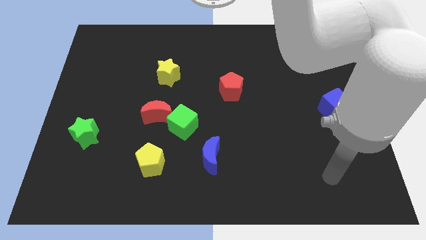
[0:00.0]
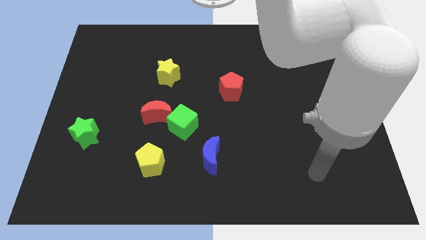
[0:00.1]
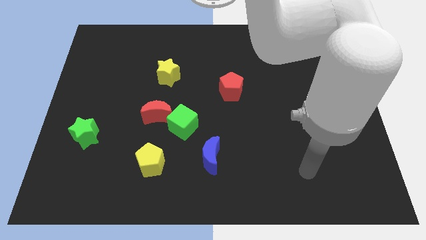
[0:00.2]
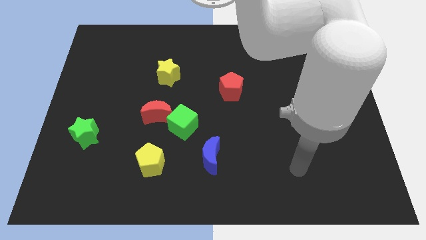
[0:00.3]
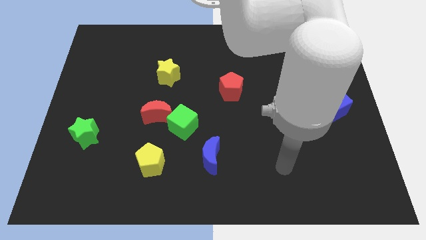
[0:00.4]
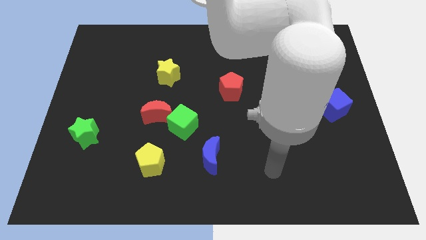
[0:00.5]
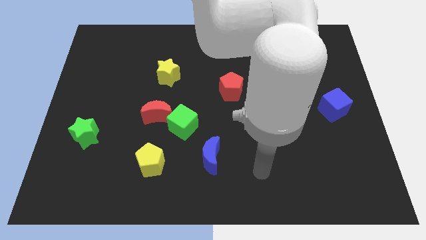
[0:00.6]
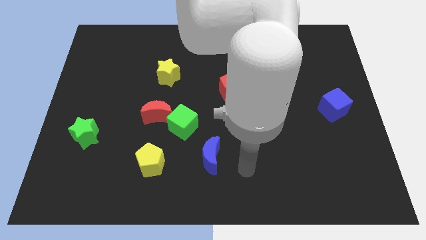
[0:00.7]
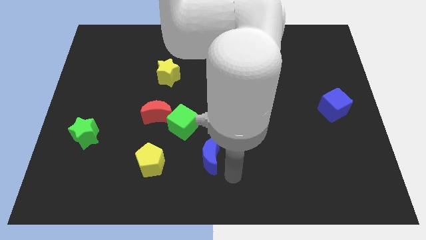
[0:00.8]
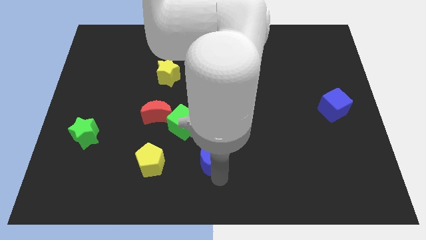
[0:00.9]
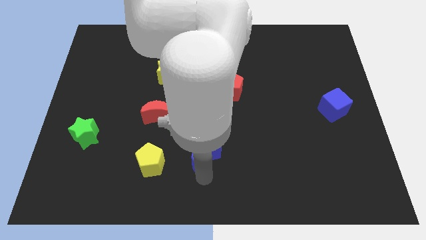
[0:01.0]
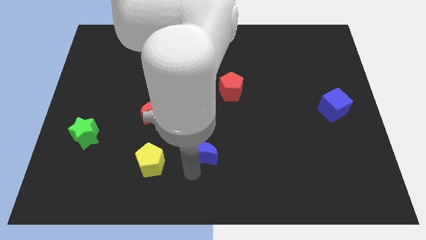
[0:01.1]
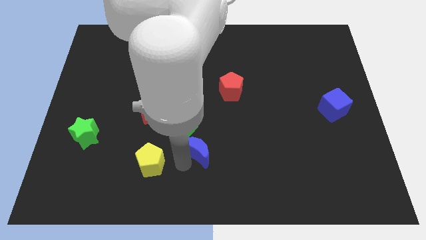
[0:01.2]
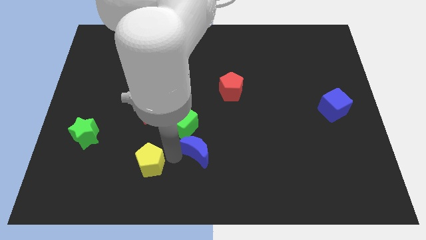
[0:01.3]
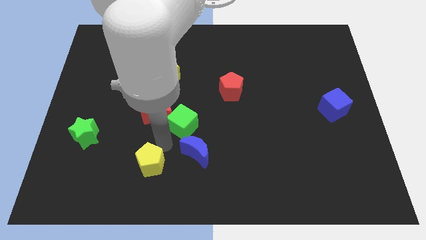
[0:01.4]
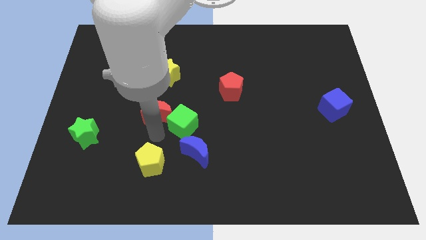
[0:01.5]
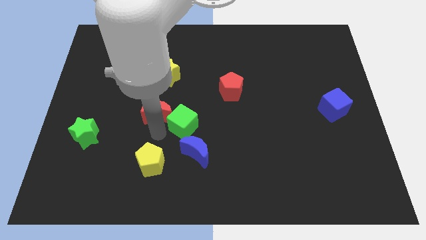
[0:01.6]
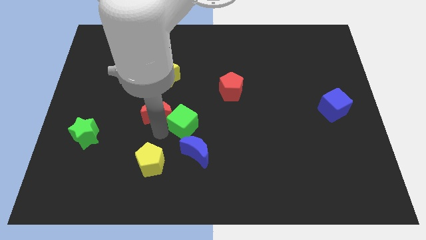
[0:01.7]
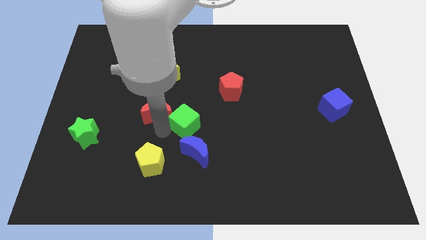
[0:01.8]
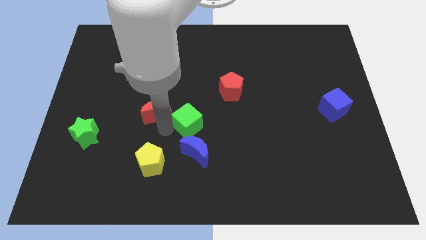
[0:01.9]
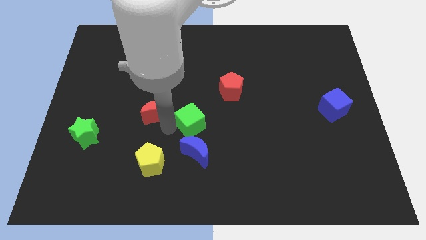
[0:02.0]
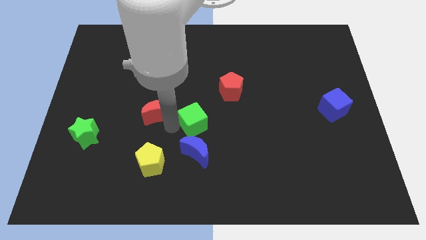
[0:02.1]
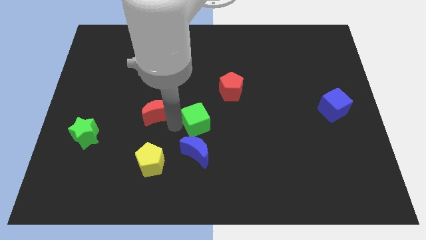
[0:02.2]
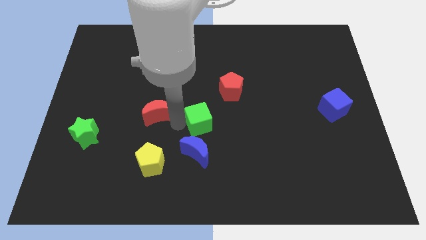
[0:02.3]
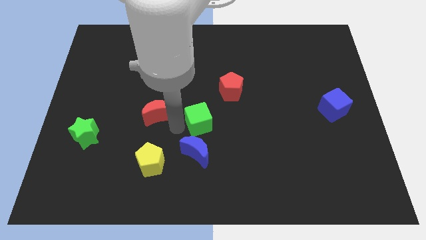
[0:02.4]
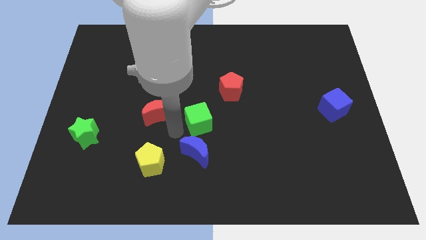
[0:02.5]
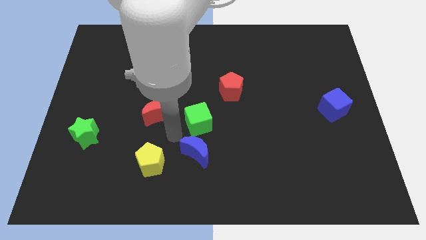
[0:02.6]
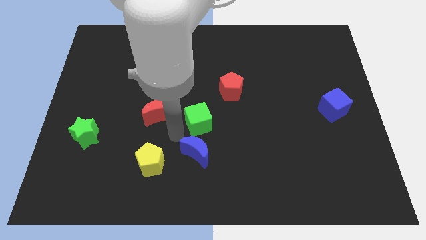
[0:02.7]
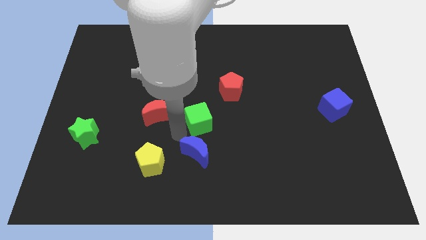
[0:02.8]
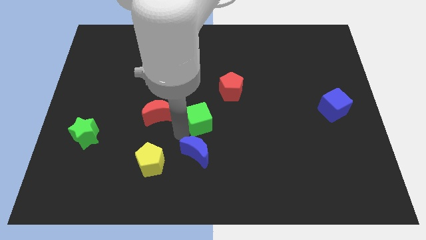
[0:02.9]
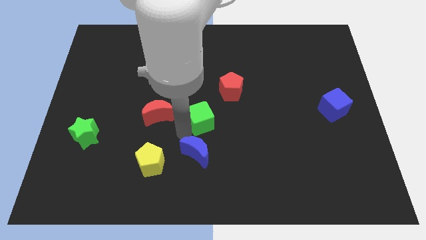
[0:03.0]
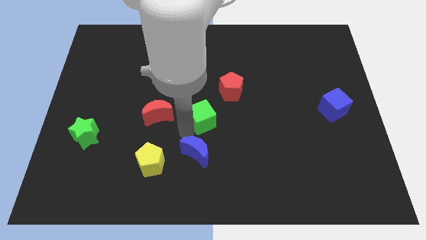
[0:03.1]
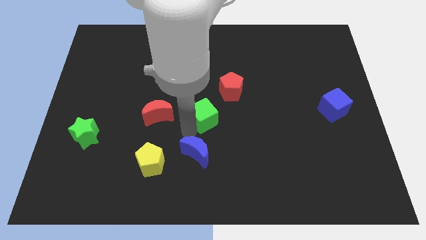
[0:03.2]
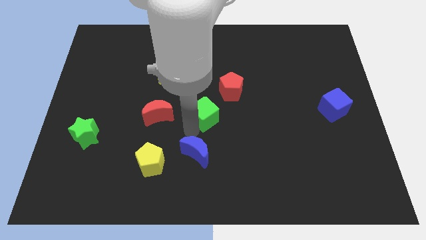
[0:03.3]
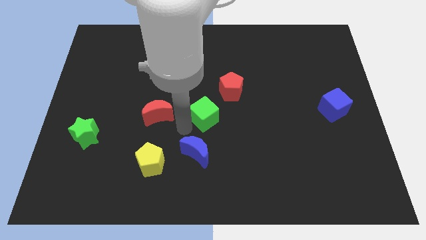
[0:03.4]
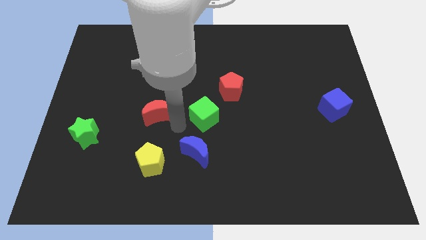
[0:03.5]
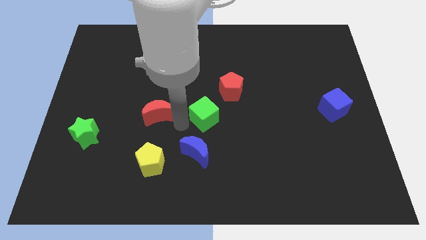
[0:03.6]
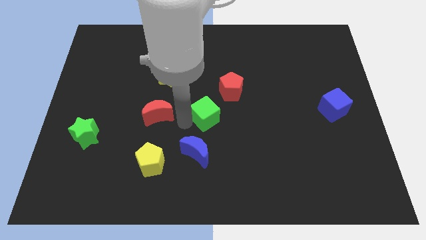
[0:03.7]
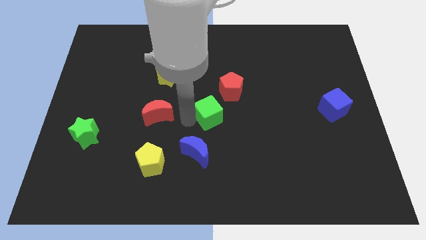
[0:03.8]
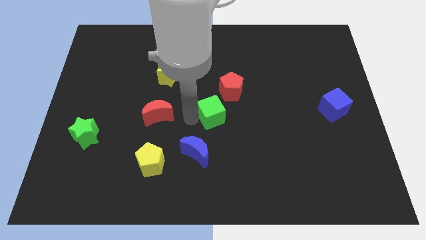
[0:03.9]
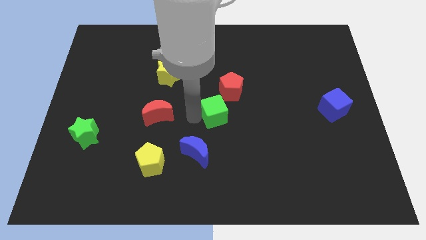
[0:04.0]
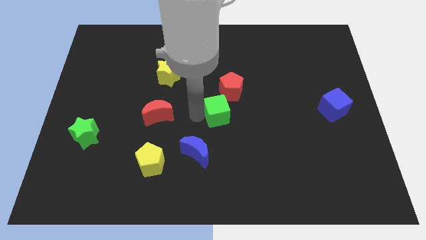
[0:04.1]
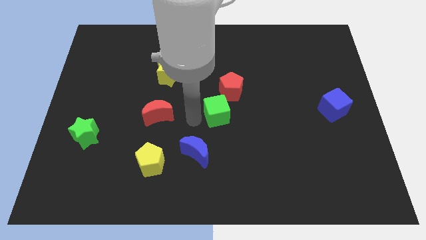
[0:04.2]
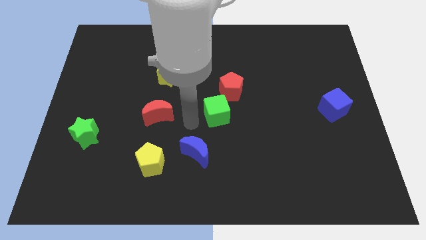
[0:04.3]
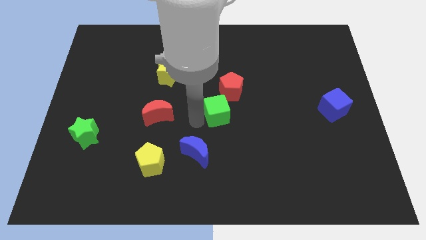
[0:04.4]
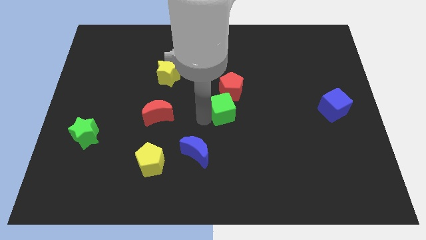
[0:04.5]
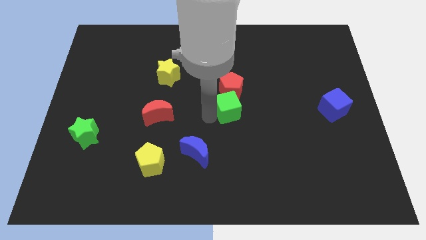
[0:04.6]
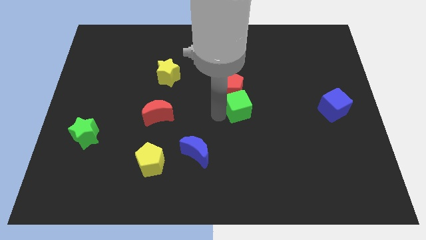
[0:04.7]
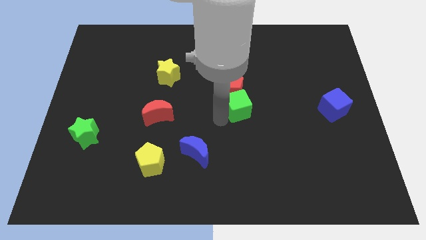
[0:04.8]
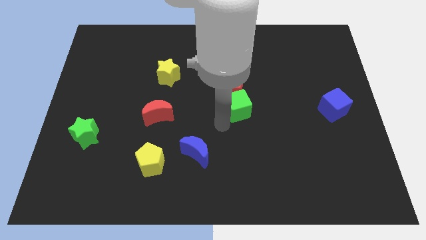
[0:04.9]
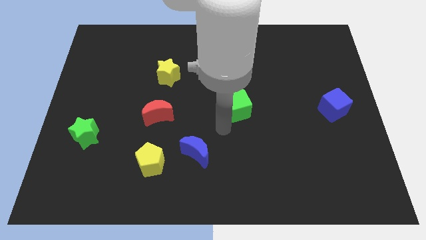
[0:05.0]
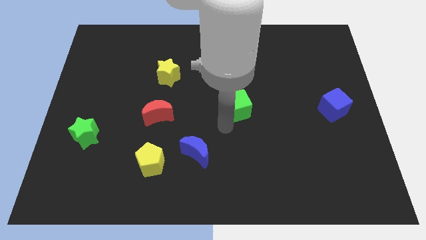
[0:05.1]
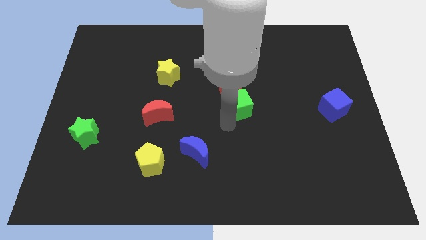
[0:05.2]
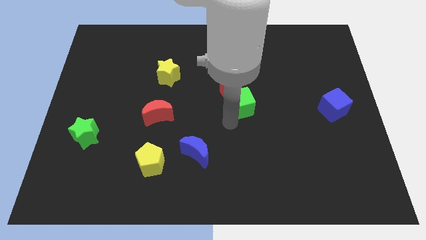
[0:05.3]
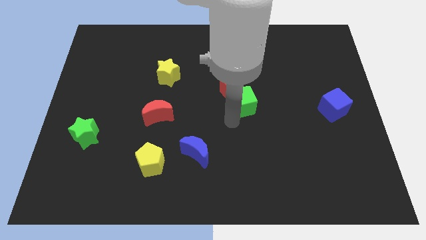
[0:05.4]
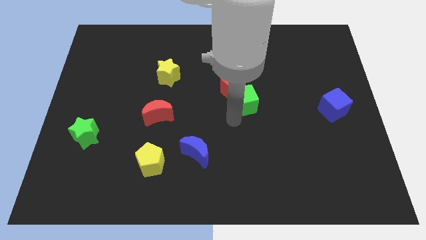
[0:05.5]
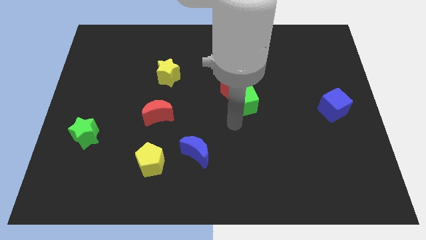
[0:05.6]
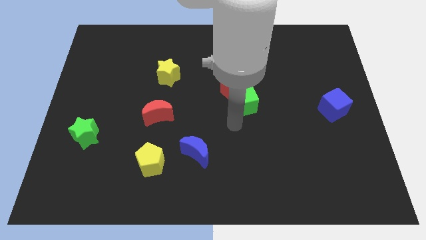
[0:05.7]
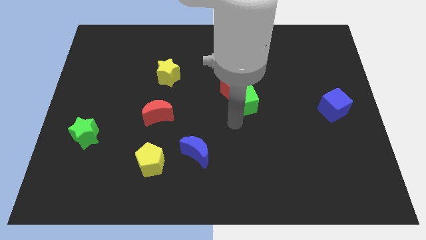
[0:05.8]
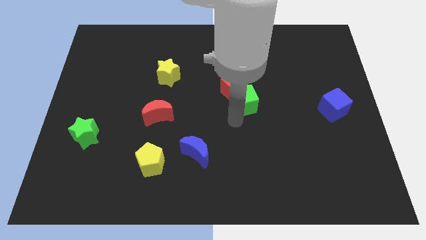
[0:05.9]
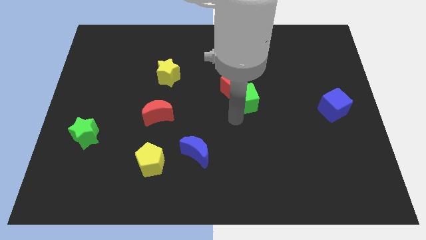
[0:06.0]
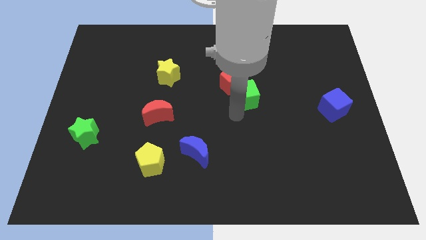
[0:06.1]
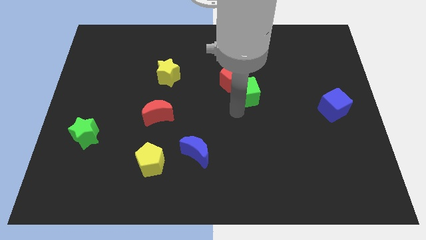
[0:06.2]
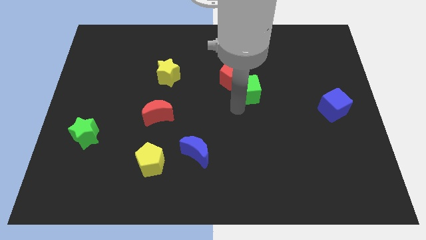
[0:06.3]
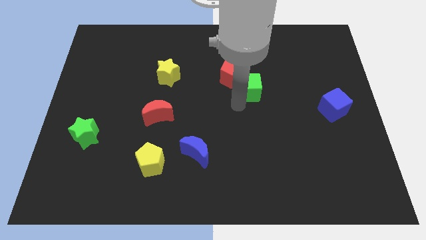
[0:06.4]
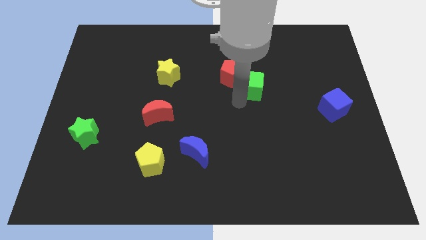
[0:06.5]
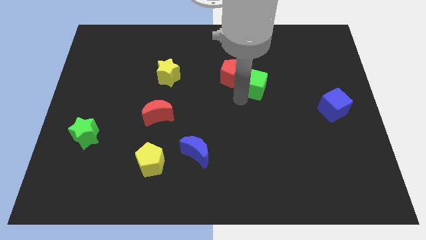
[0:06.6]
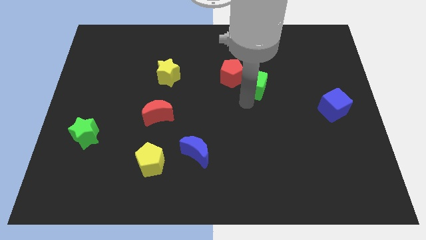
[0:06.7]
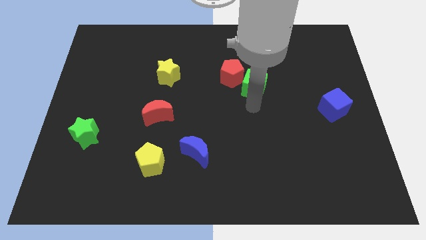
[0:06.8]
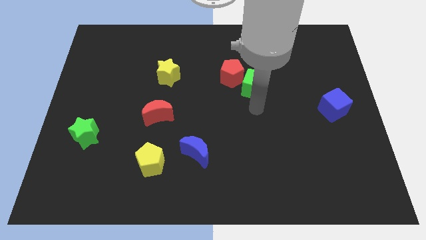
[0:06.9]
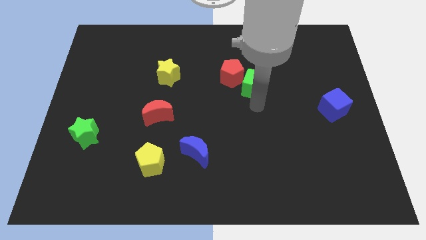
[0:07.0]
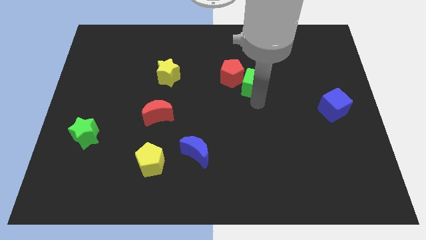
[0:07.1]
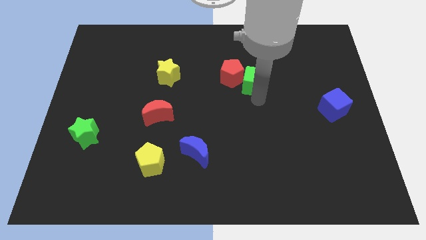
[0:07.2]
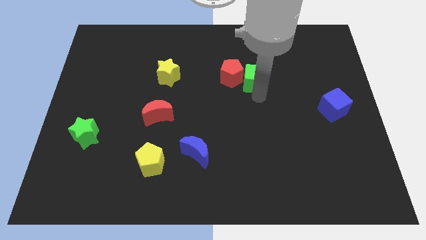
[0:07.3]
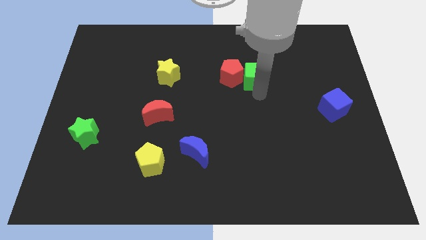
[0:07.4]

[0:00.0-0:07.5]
push the green cube diagonally up and to the right of the red pentagon

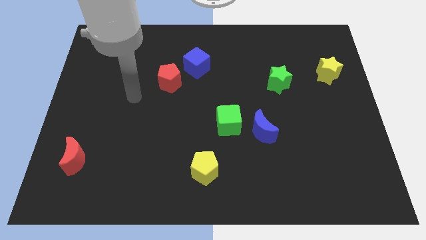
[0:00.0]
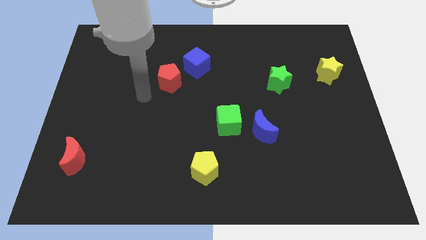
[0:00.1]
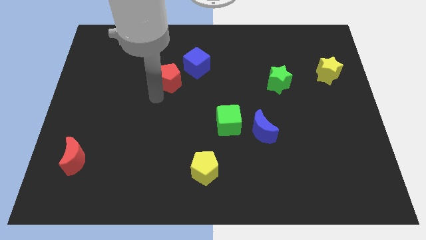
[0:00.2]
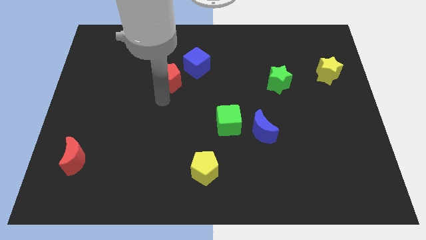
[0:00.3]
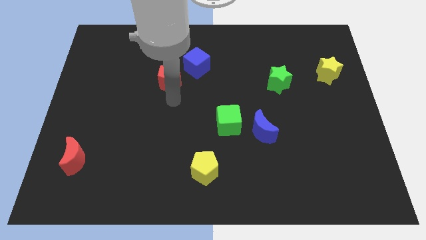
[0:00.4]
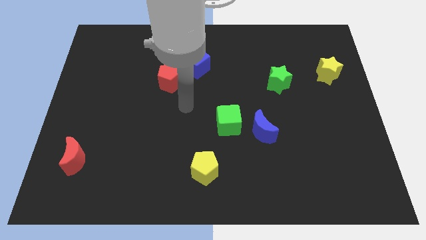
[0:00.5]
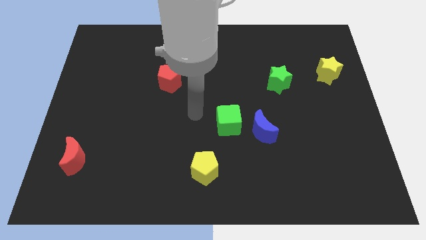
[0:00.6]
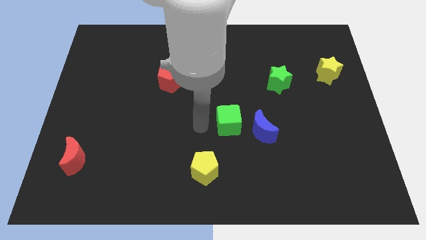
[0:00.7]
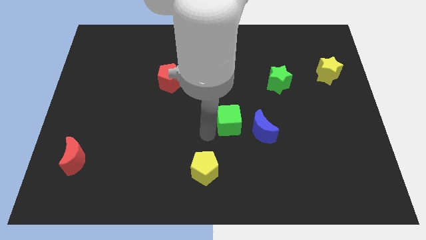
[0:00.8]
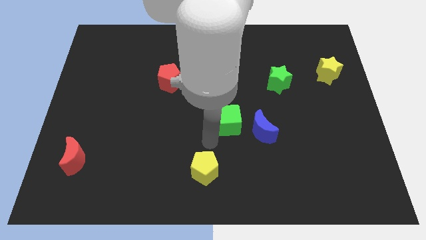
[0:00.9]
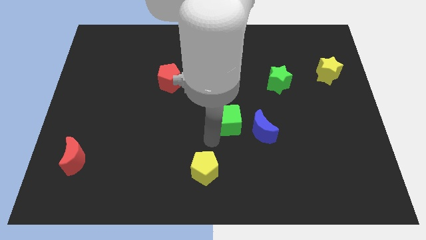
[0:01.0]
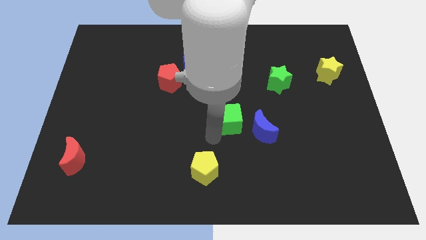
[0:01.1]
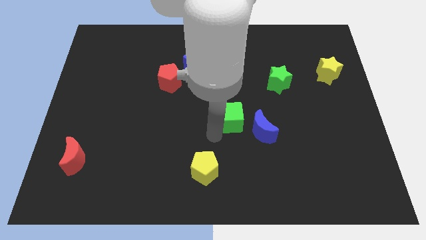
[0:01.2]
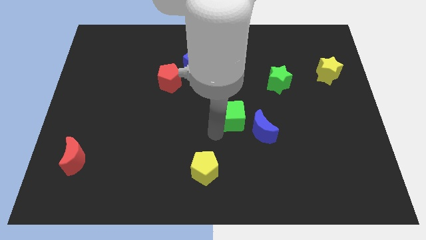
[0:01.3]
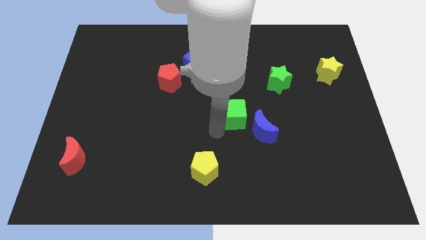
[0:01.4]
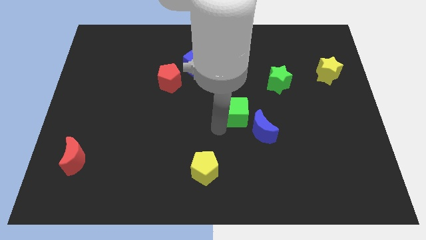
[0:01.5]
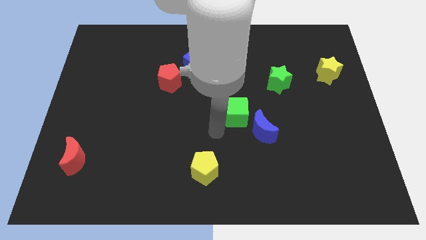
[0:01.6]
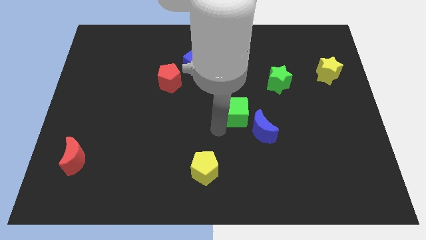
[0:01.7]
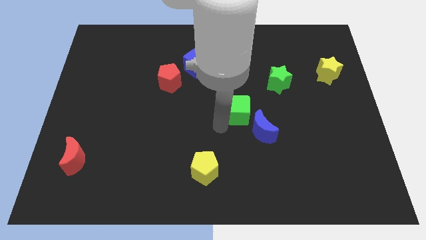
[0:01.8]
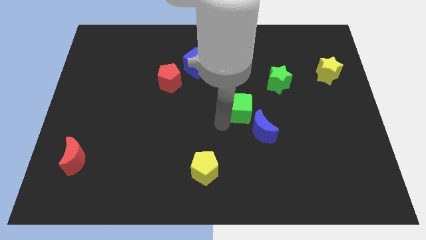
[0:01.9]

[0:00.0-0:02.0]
put the green cube to the top of the blue moon
